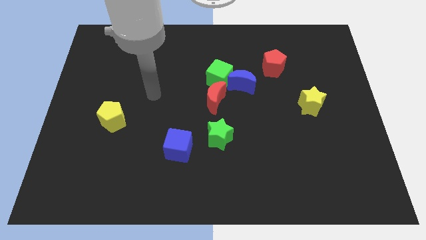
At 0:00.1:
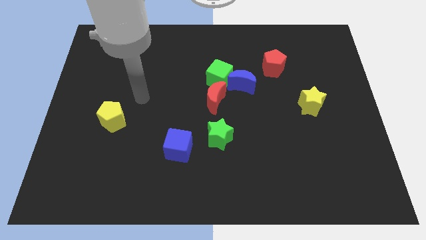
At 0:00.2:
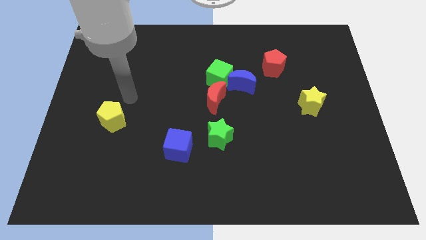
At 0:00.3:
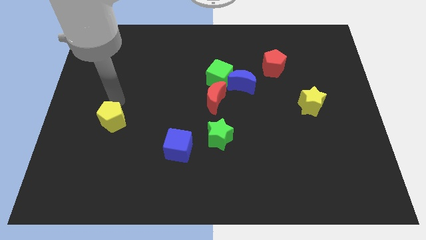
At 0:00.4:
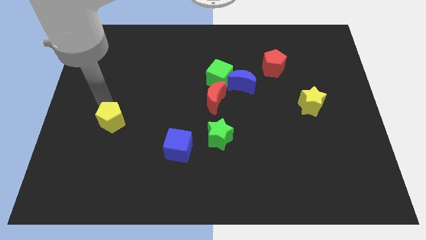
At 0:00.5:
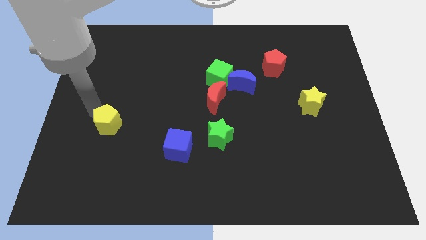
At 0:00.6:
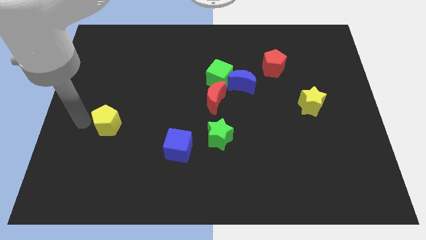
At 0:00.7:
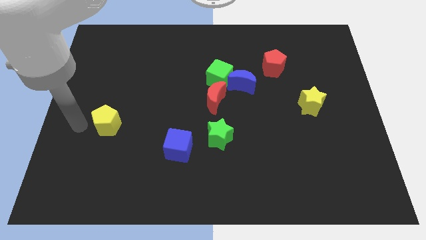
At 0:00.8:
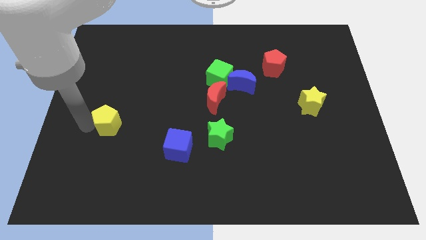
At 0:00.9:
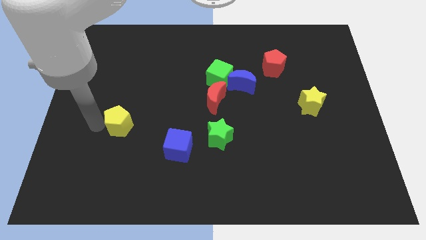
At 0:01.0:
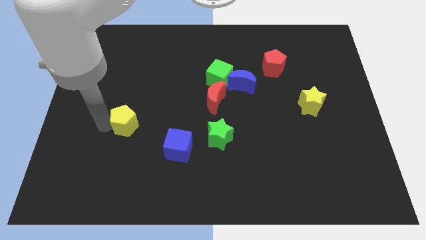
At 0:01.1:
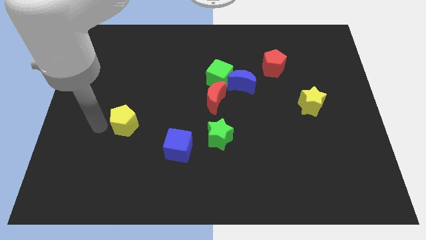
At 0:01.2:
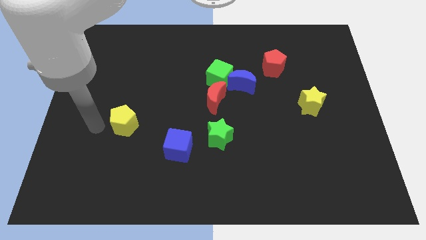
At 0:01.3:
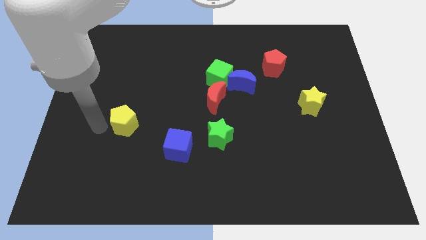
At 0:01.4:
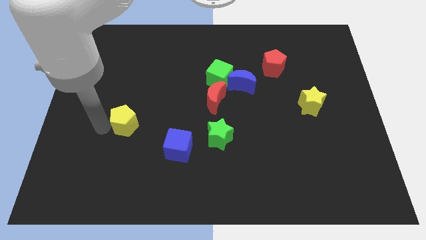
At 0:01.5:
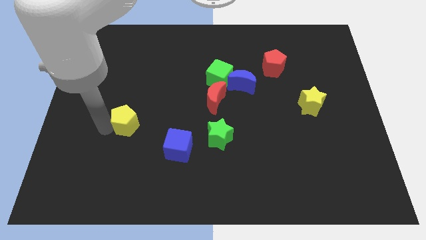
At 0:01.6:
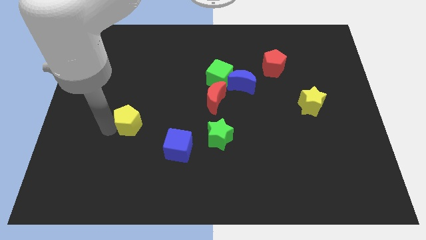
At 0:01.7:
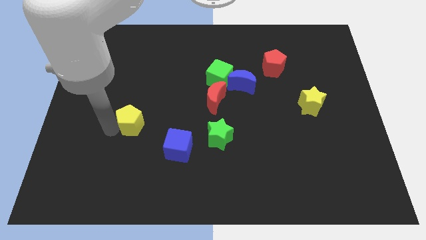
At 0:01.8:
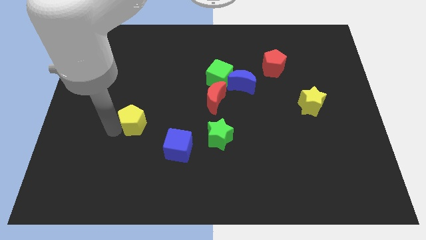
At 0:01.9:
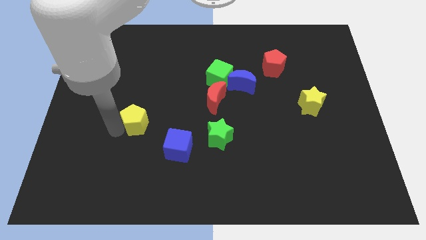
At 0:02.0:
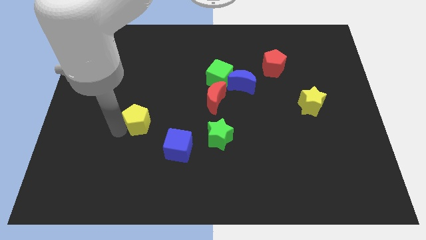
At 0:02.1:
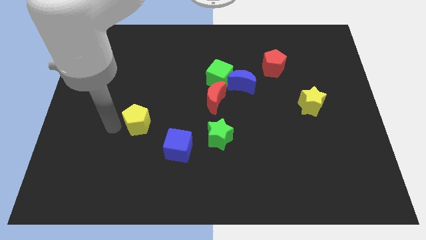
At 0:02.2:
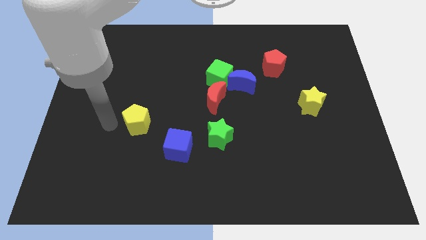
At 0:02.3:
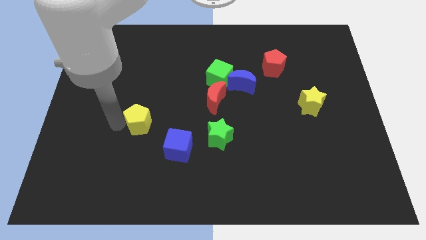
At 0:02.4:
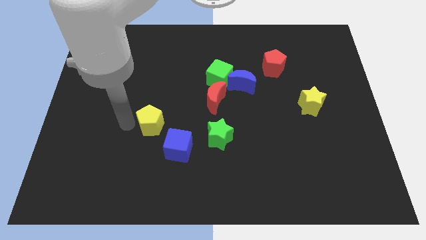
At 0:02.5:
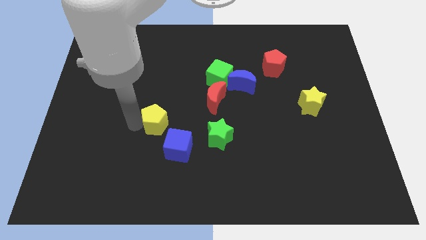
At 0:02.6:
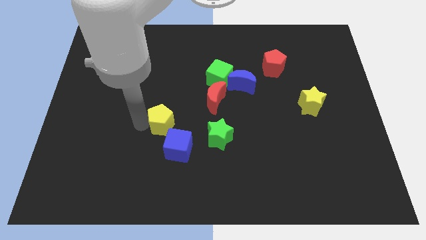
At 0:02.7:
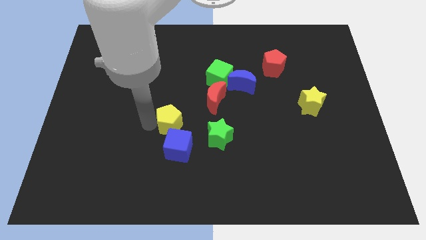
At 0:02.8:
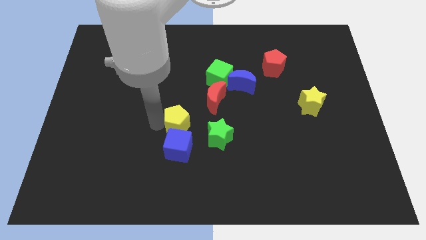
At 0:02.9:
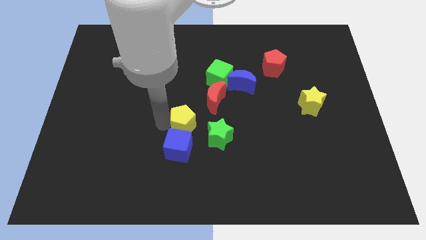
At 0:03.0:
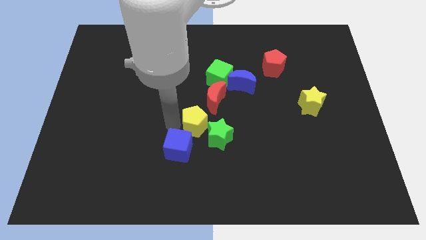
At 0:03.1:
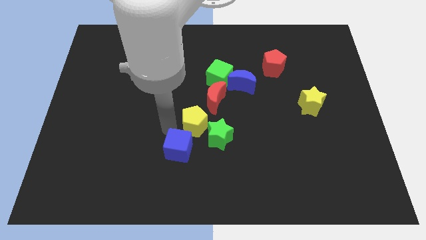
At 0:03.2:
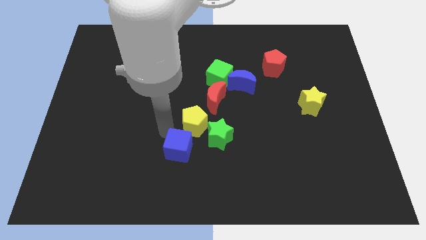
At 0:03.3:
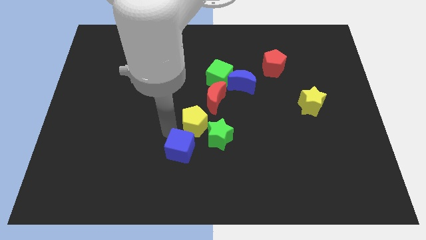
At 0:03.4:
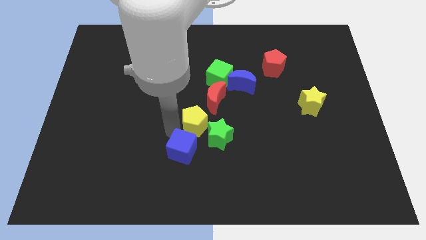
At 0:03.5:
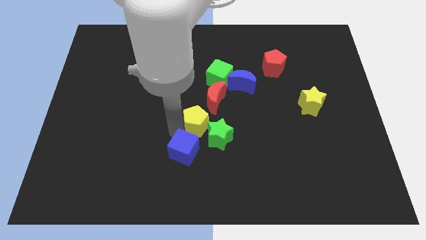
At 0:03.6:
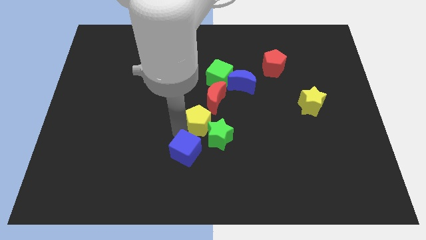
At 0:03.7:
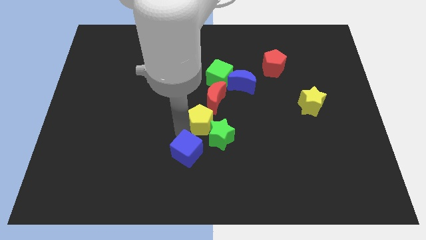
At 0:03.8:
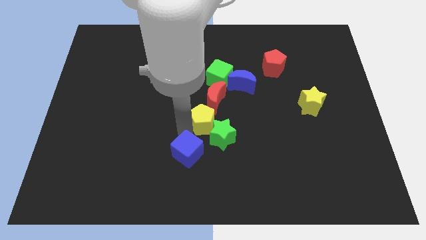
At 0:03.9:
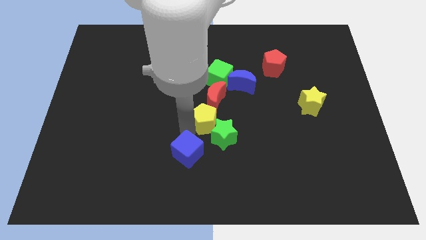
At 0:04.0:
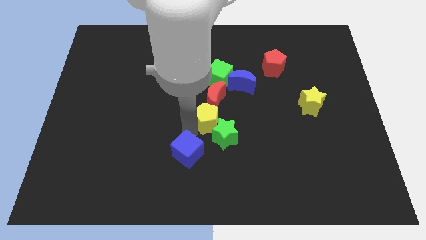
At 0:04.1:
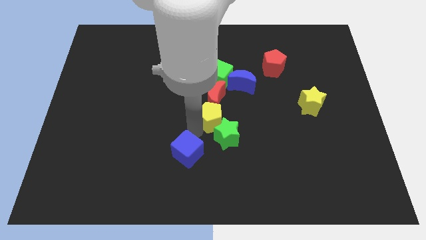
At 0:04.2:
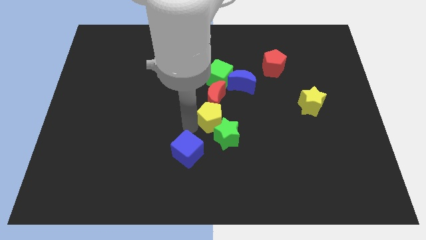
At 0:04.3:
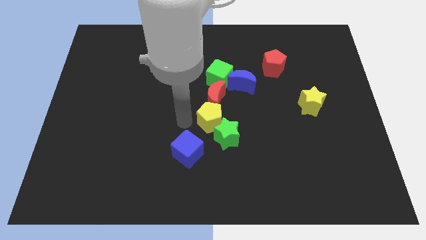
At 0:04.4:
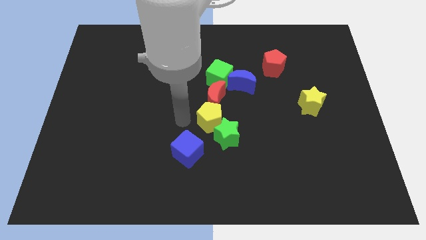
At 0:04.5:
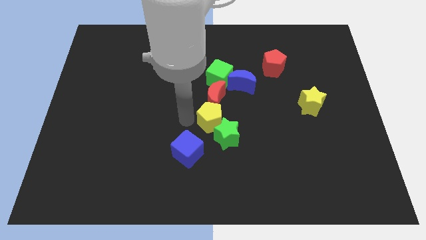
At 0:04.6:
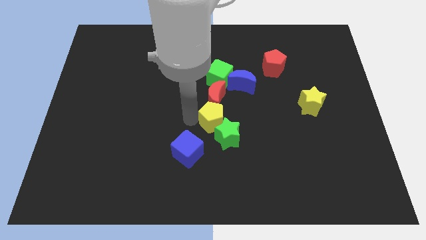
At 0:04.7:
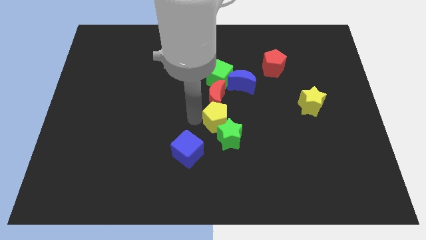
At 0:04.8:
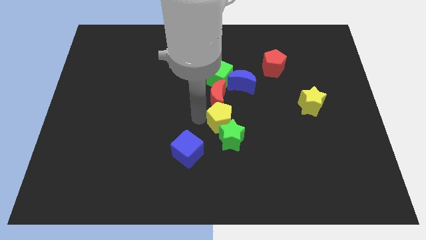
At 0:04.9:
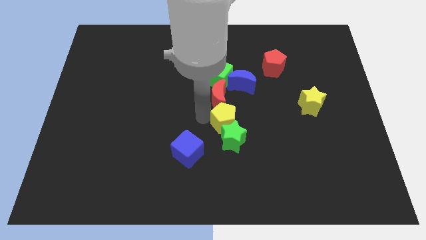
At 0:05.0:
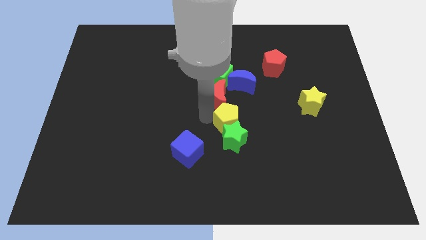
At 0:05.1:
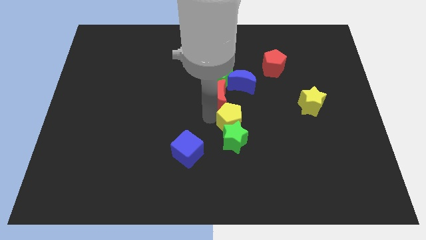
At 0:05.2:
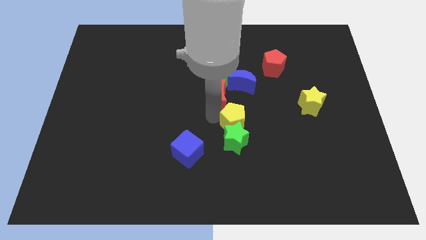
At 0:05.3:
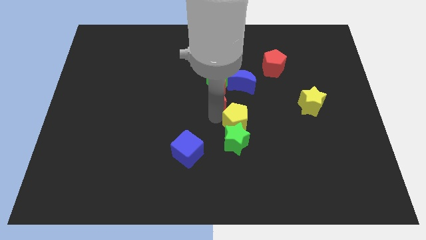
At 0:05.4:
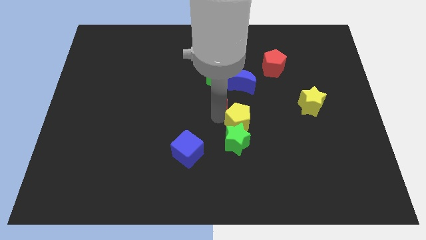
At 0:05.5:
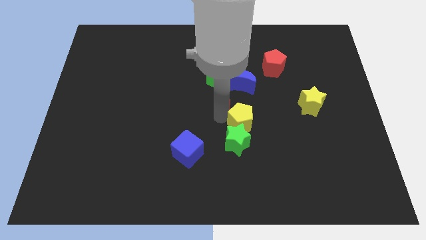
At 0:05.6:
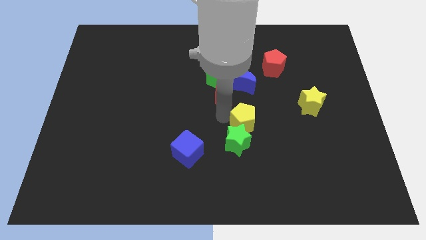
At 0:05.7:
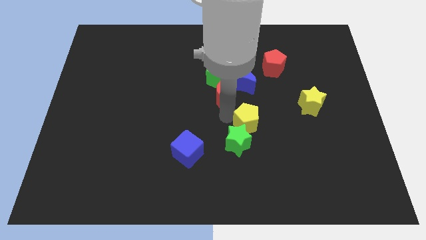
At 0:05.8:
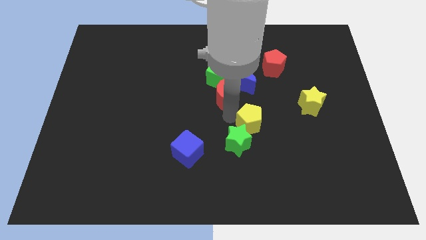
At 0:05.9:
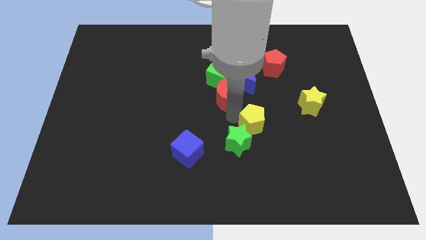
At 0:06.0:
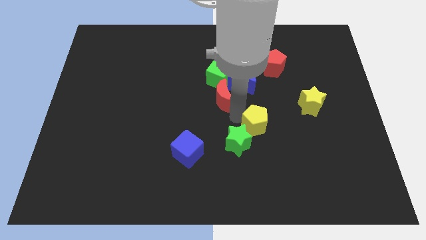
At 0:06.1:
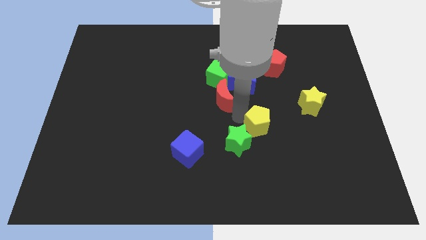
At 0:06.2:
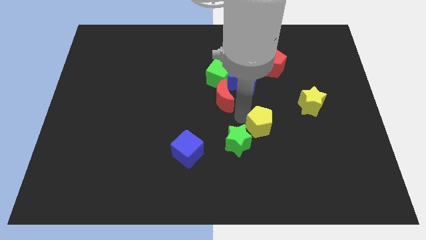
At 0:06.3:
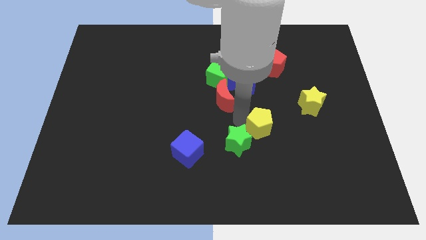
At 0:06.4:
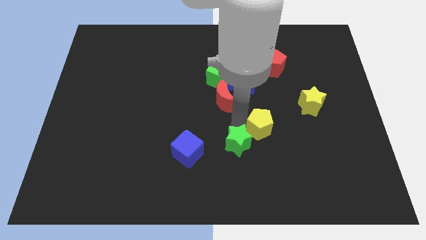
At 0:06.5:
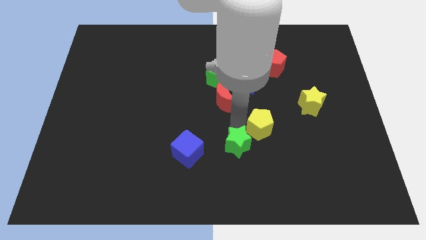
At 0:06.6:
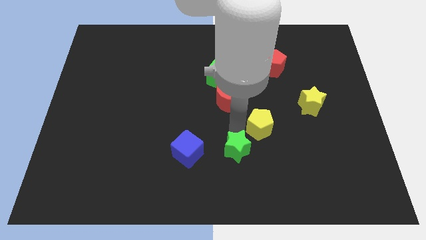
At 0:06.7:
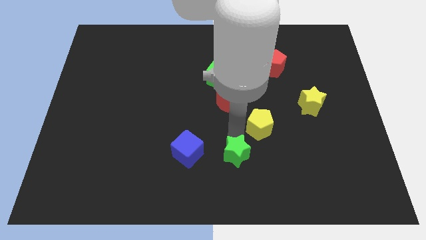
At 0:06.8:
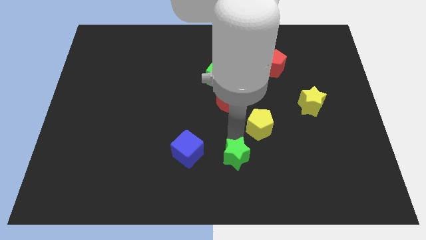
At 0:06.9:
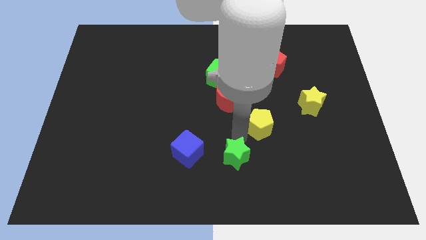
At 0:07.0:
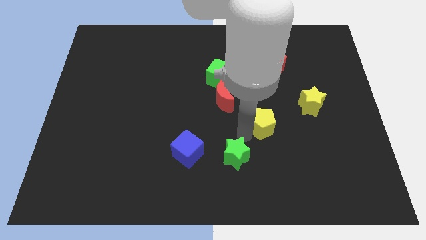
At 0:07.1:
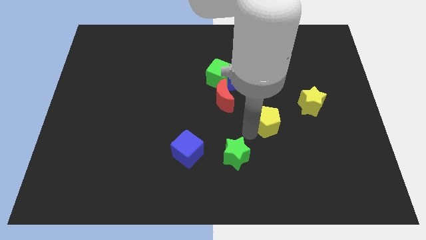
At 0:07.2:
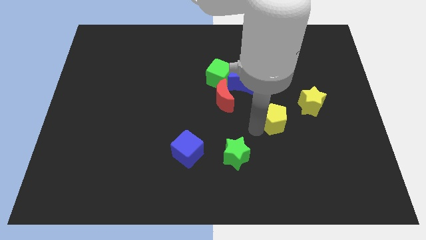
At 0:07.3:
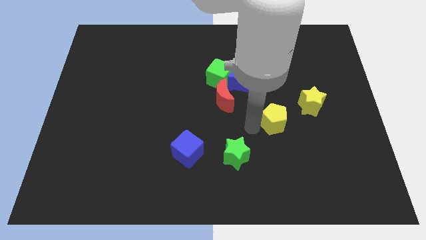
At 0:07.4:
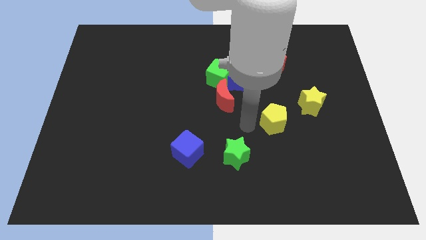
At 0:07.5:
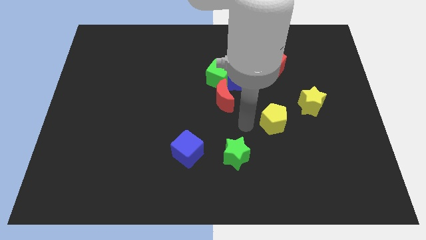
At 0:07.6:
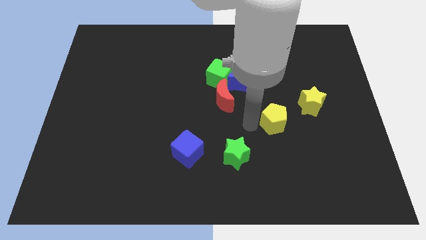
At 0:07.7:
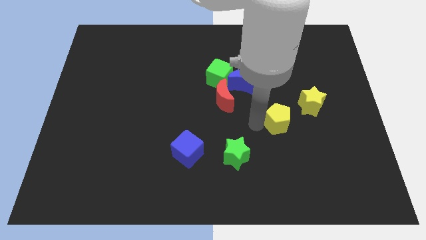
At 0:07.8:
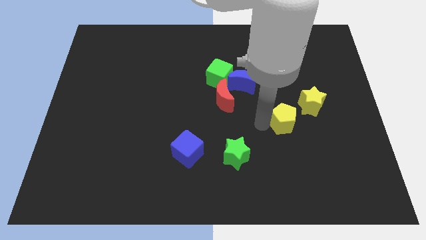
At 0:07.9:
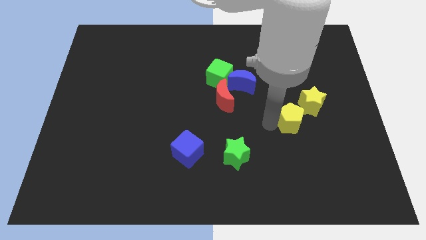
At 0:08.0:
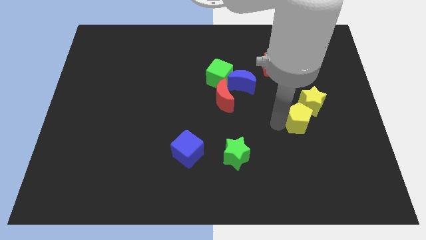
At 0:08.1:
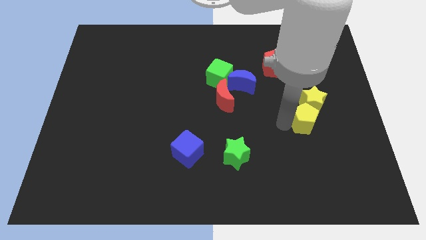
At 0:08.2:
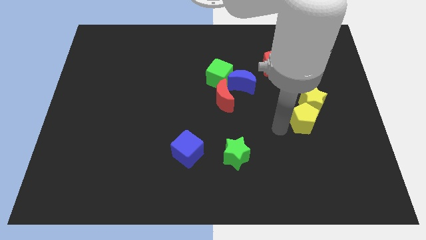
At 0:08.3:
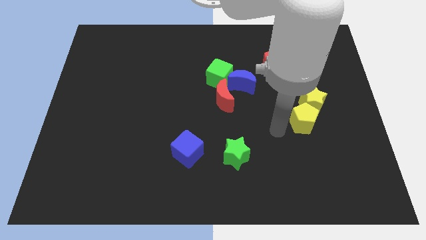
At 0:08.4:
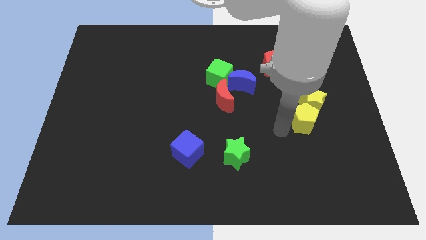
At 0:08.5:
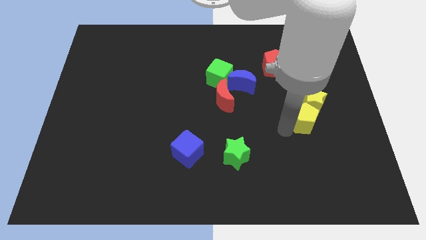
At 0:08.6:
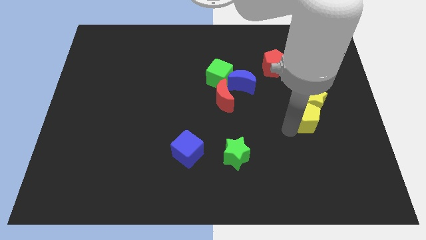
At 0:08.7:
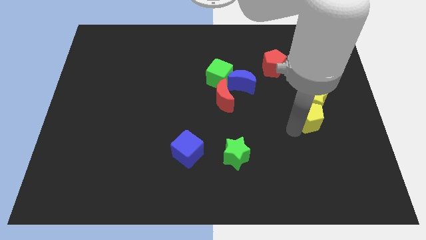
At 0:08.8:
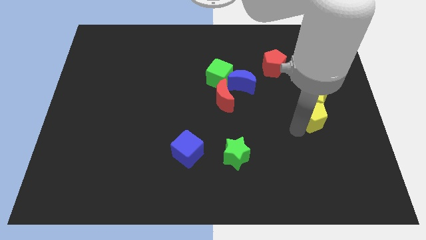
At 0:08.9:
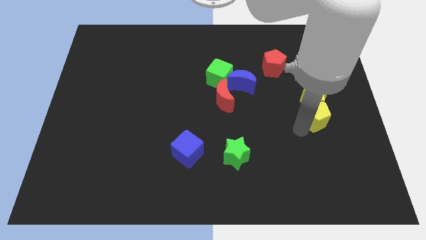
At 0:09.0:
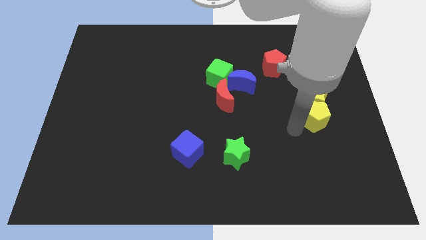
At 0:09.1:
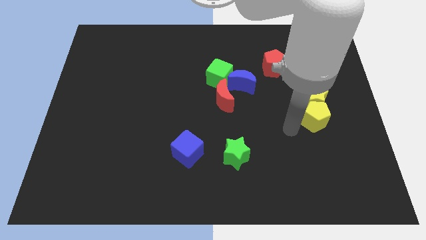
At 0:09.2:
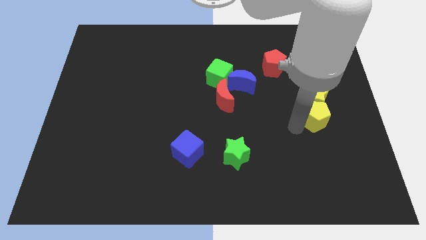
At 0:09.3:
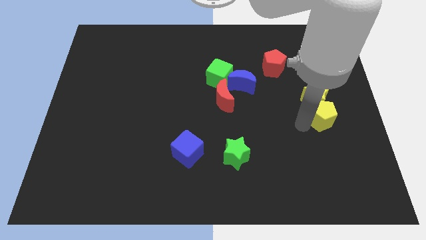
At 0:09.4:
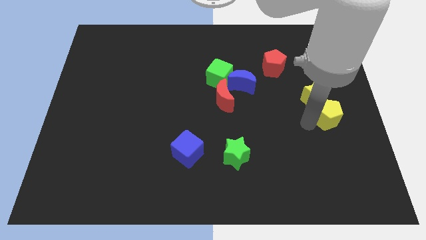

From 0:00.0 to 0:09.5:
move the yellow pentagon to the center right
